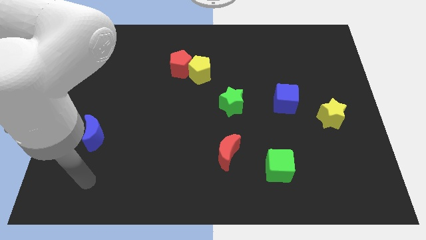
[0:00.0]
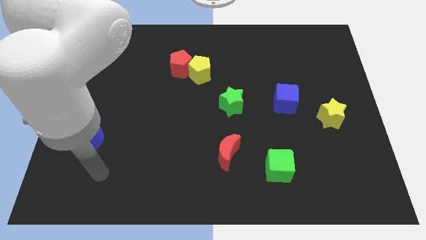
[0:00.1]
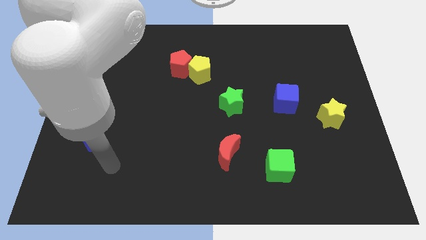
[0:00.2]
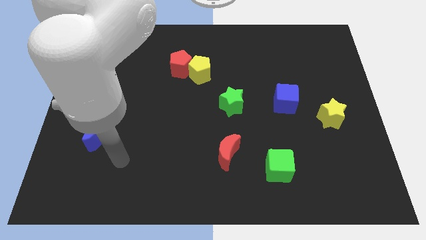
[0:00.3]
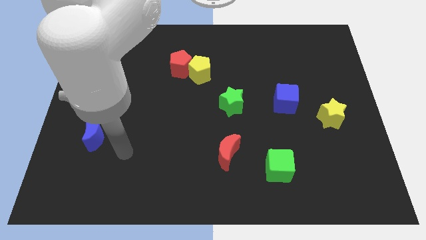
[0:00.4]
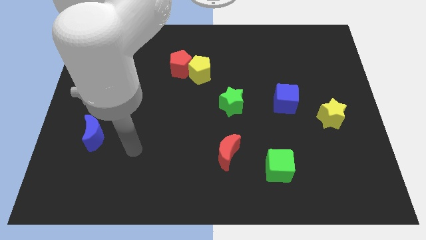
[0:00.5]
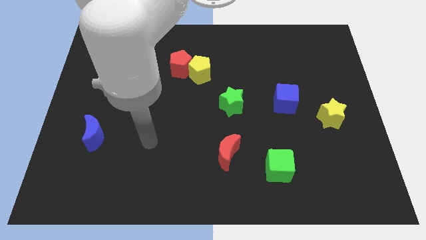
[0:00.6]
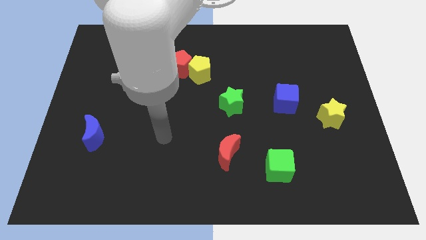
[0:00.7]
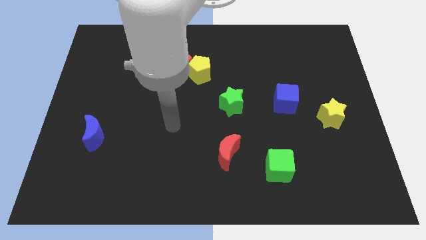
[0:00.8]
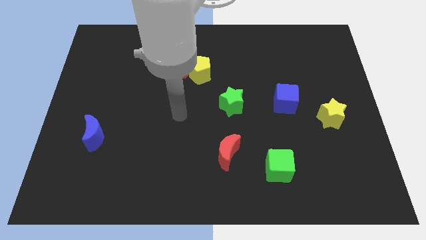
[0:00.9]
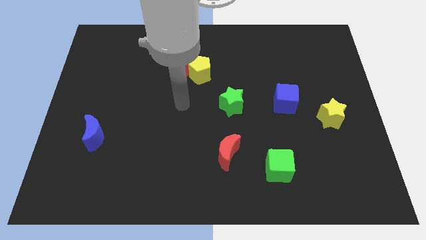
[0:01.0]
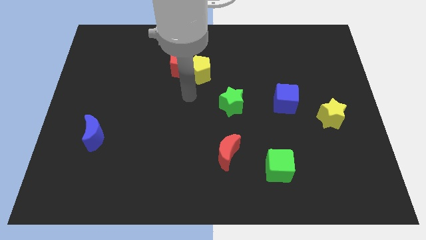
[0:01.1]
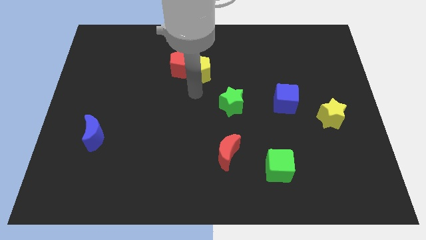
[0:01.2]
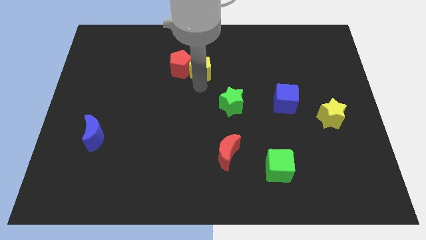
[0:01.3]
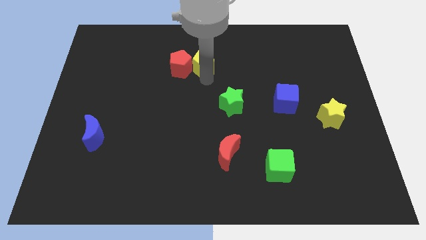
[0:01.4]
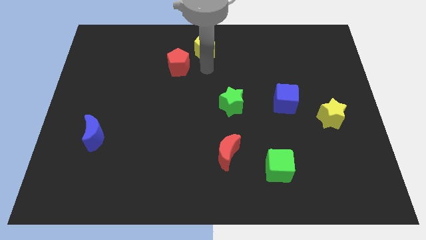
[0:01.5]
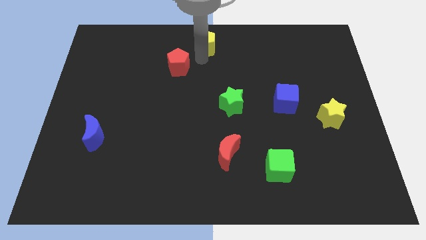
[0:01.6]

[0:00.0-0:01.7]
separate the red pentagon from the yellow pentagon

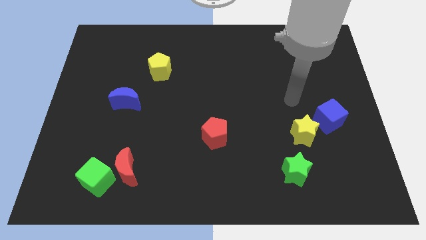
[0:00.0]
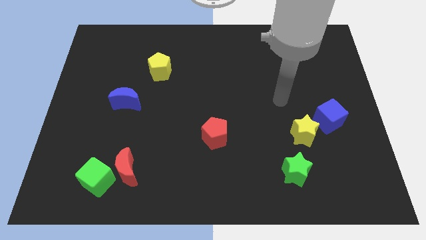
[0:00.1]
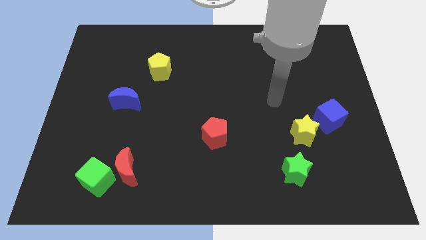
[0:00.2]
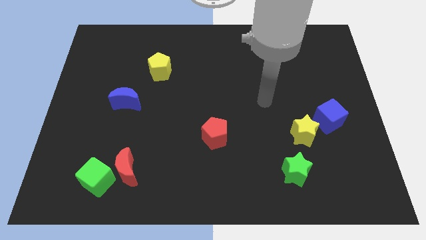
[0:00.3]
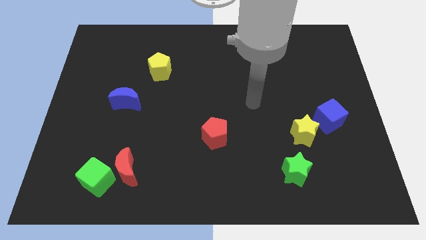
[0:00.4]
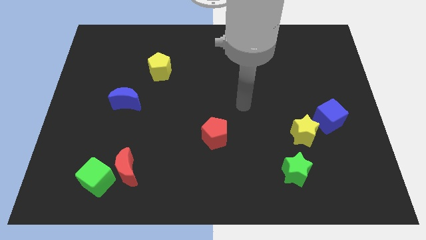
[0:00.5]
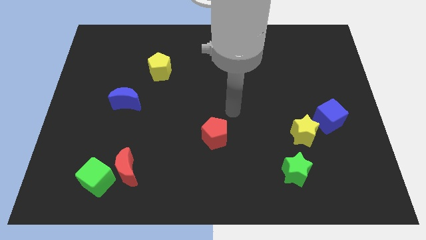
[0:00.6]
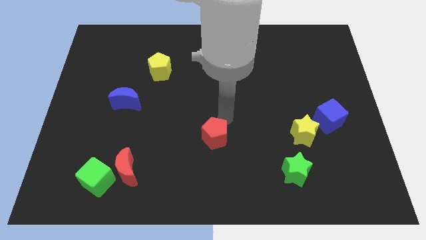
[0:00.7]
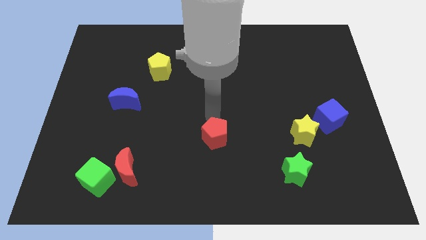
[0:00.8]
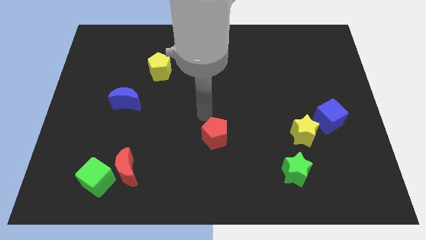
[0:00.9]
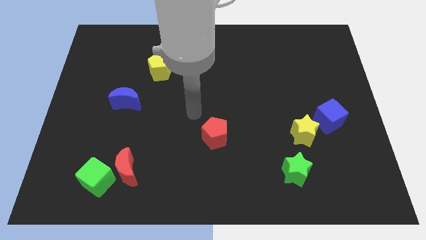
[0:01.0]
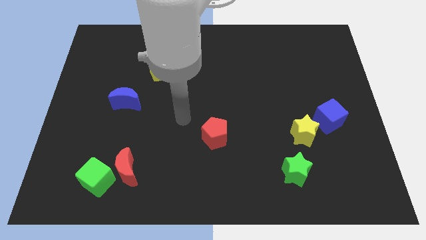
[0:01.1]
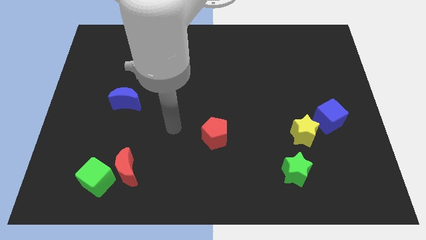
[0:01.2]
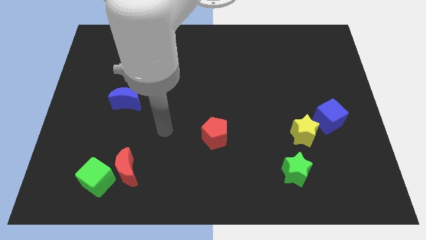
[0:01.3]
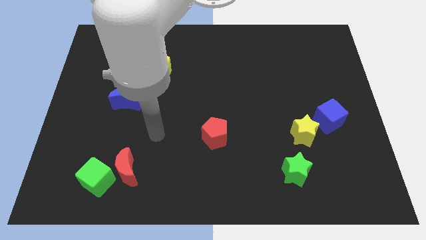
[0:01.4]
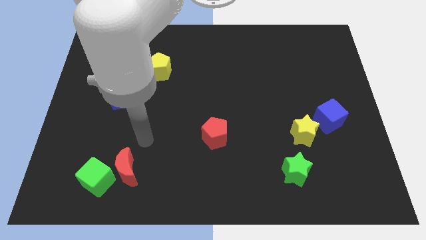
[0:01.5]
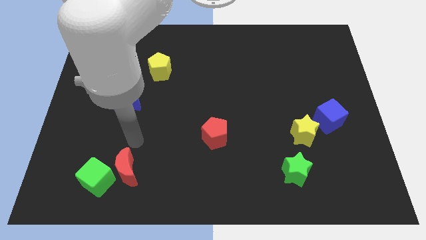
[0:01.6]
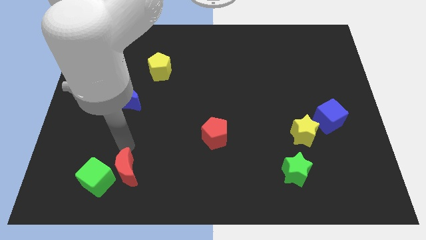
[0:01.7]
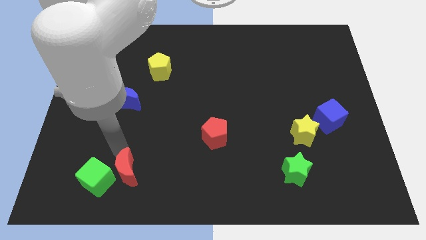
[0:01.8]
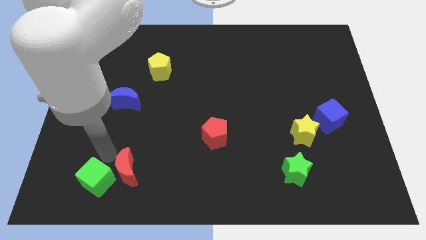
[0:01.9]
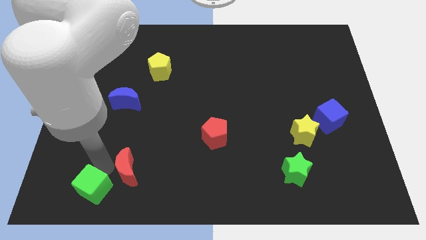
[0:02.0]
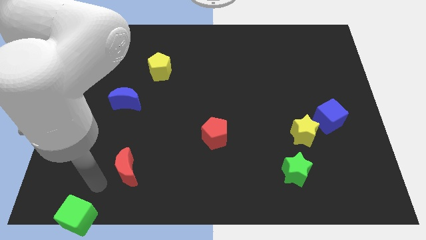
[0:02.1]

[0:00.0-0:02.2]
pull the red moon apart from the green cube

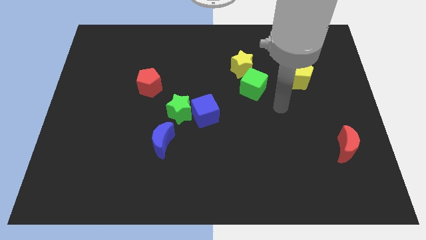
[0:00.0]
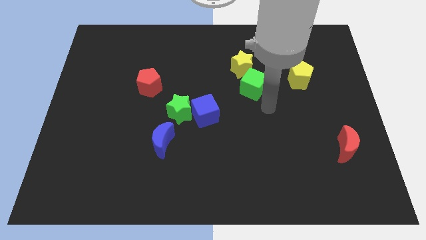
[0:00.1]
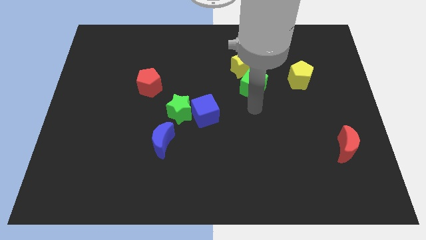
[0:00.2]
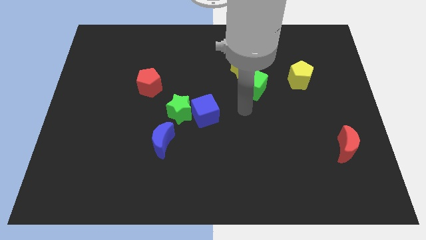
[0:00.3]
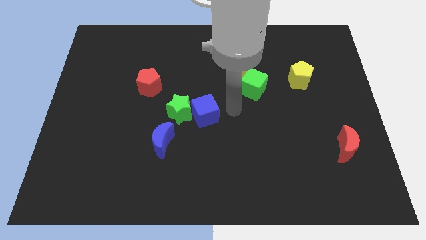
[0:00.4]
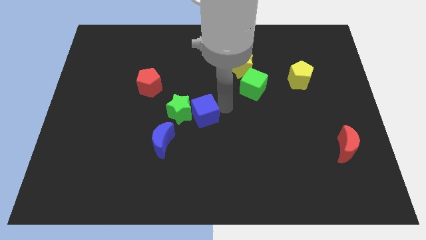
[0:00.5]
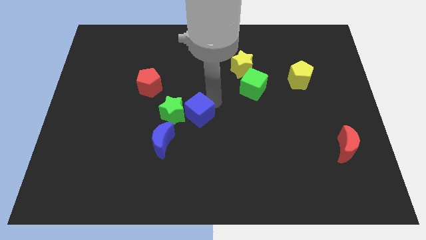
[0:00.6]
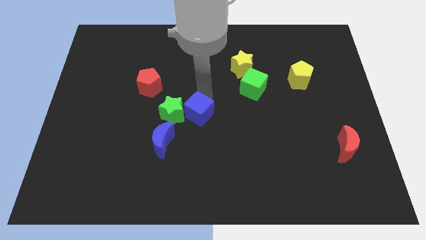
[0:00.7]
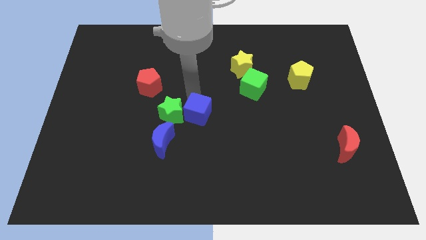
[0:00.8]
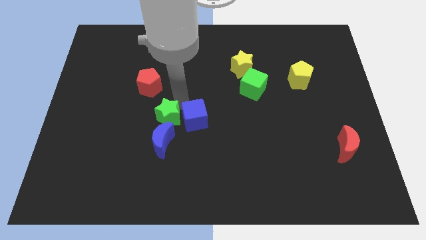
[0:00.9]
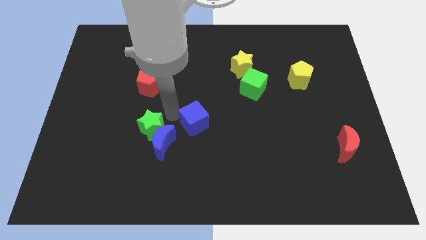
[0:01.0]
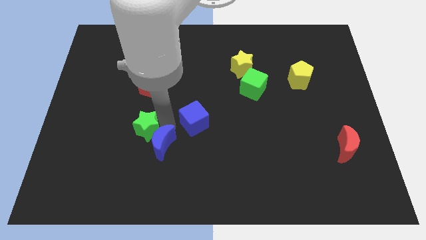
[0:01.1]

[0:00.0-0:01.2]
separate the blue cube from the green star

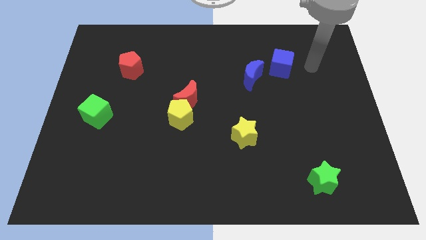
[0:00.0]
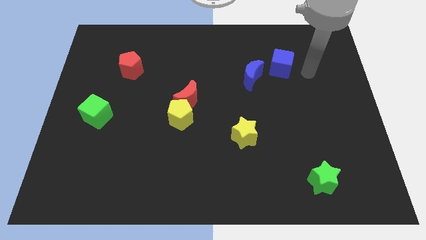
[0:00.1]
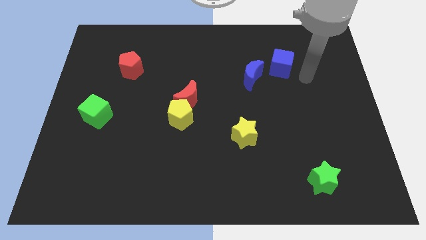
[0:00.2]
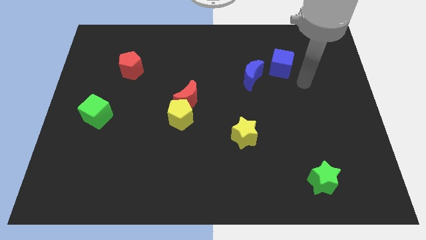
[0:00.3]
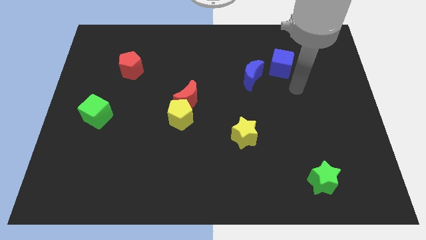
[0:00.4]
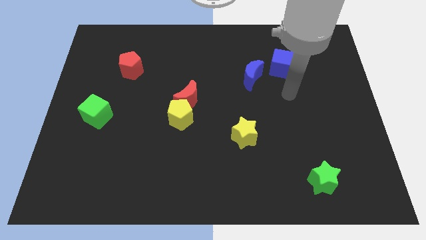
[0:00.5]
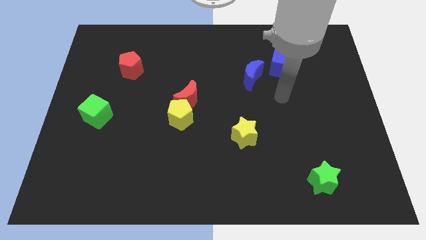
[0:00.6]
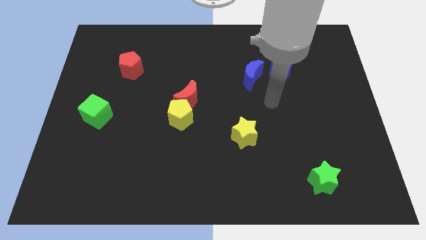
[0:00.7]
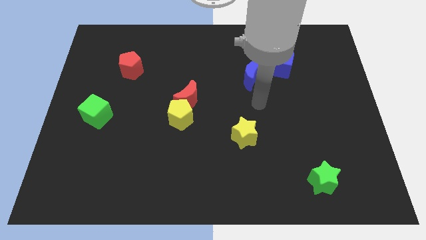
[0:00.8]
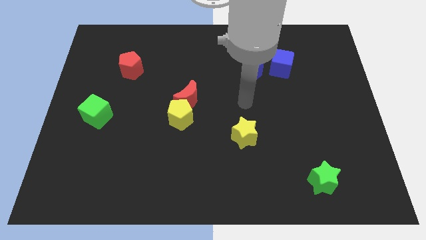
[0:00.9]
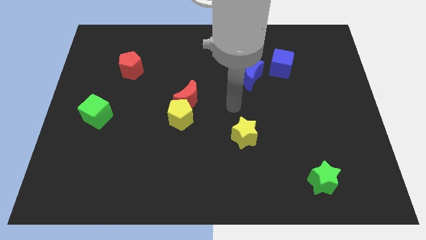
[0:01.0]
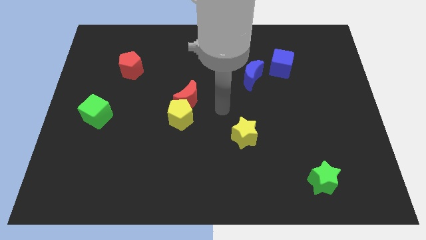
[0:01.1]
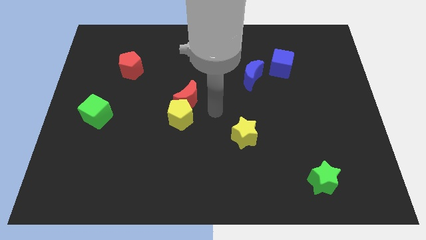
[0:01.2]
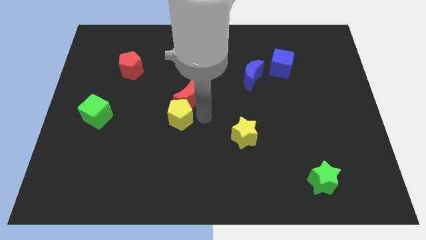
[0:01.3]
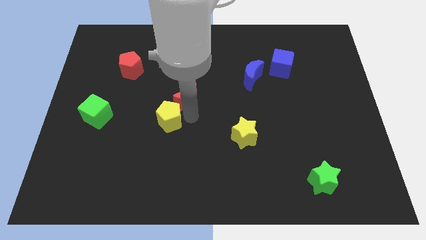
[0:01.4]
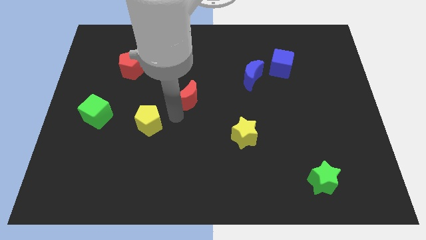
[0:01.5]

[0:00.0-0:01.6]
separate the red moon from the yellow pentagon

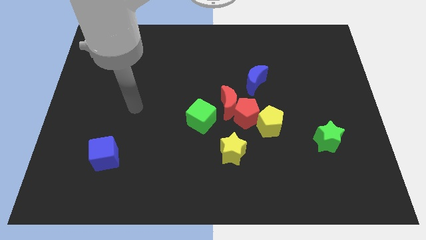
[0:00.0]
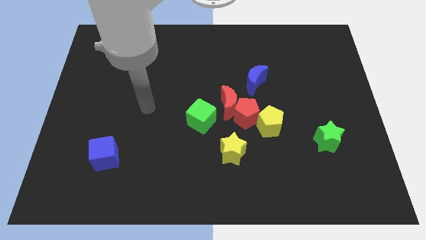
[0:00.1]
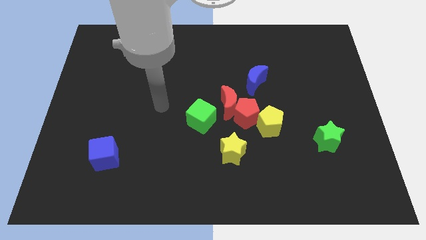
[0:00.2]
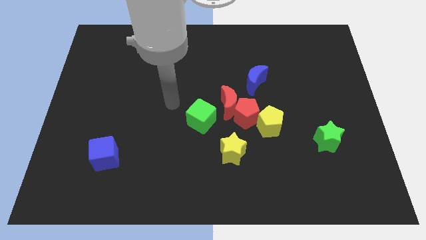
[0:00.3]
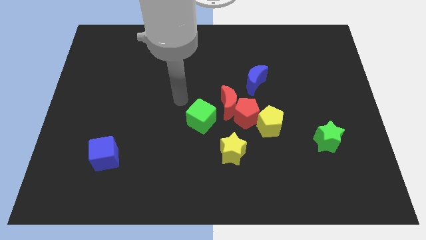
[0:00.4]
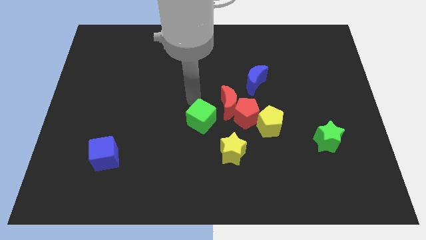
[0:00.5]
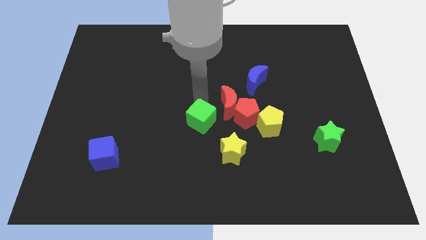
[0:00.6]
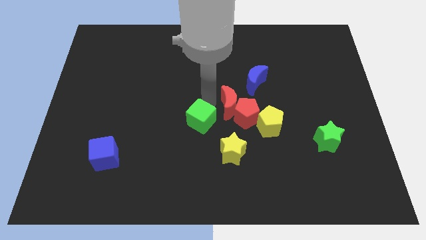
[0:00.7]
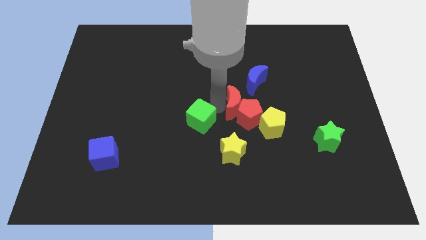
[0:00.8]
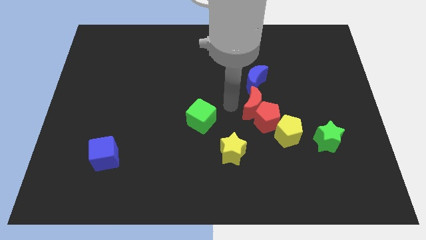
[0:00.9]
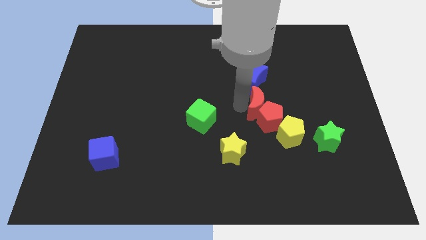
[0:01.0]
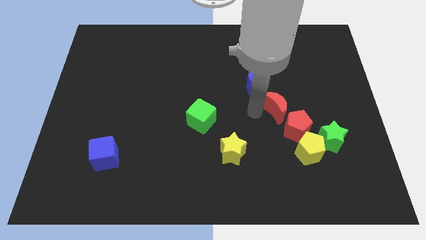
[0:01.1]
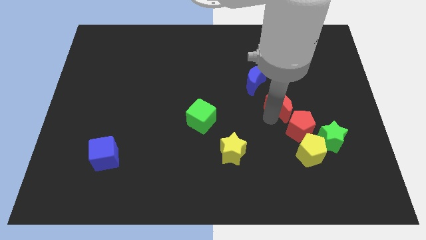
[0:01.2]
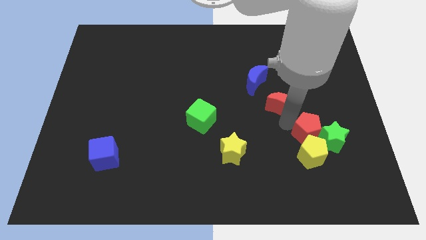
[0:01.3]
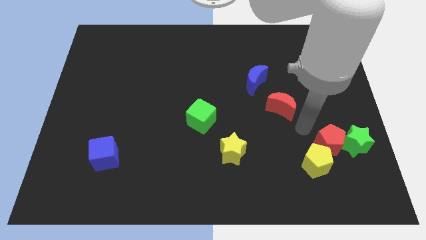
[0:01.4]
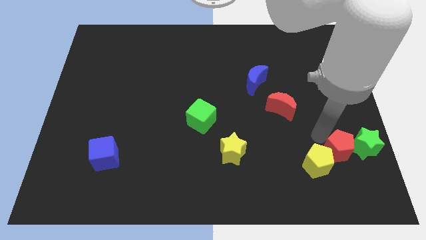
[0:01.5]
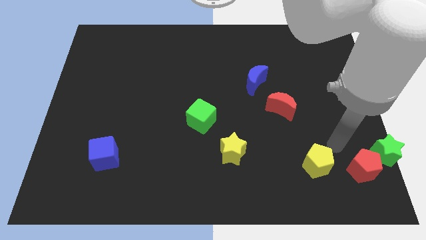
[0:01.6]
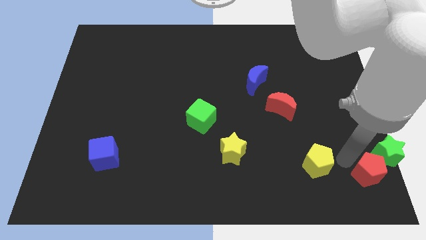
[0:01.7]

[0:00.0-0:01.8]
separate the yellow pentagon from the red pentagon

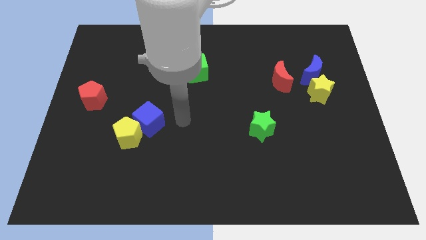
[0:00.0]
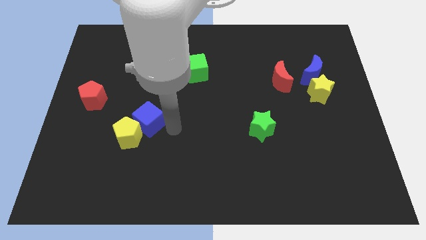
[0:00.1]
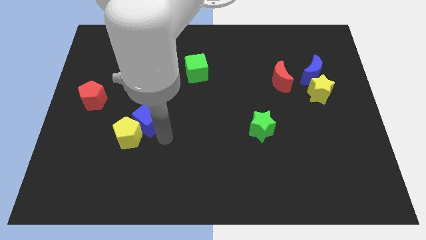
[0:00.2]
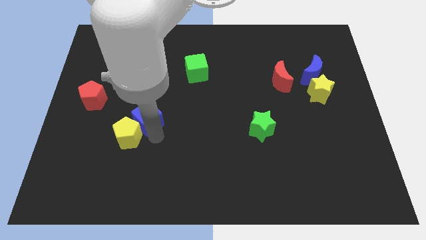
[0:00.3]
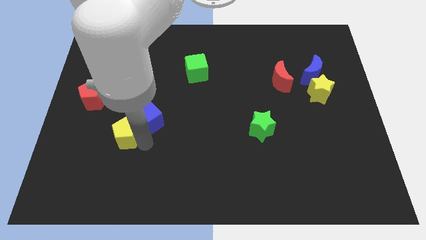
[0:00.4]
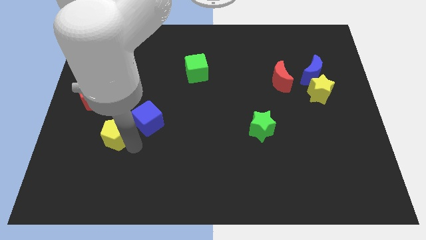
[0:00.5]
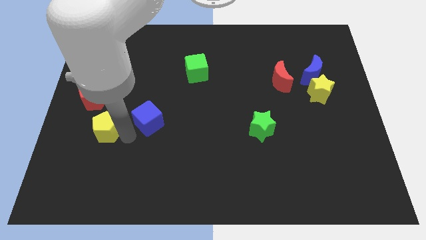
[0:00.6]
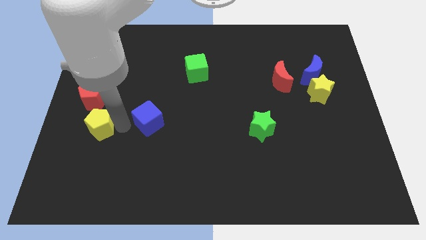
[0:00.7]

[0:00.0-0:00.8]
move the blue cube away from the yellow pentagon
